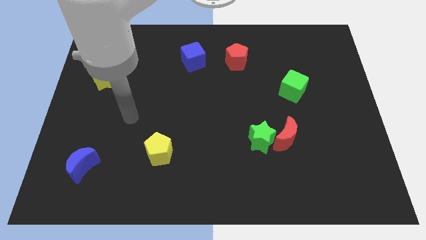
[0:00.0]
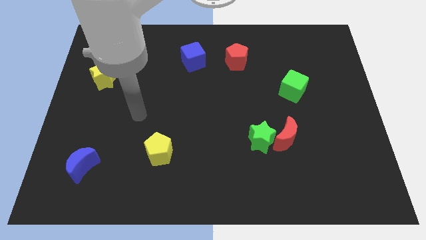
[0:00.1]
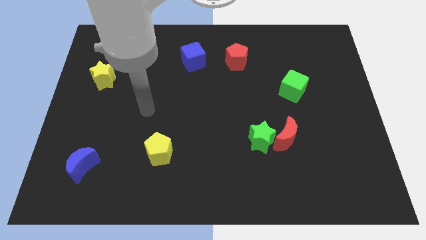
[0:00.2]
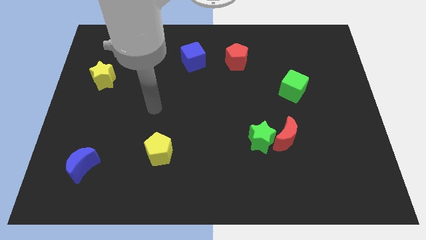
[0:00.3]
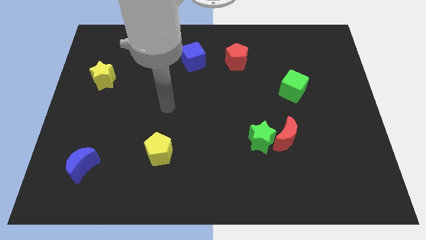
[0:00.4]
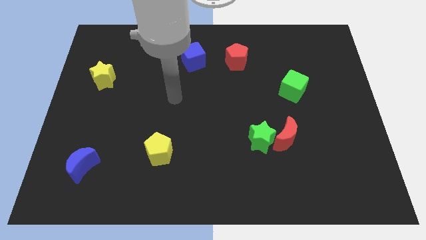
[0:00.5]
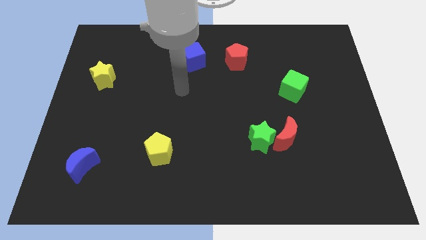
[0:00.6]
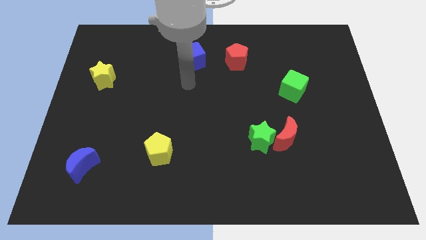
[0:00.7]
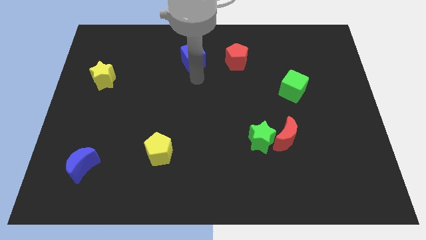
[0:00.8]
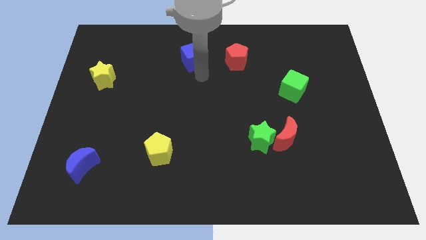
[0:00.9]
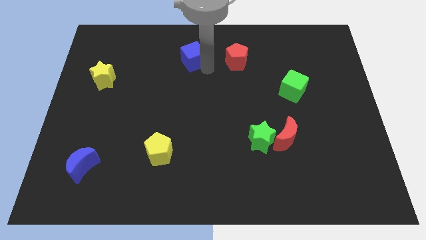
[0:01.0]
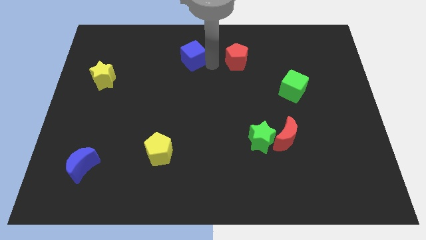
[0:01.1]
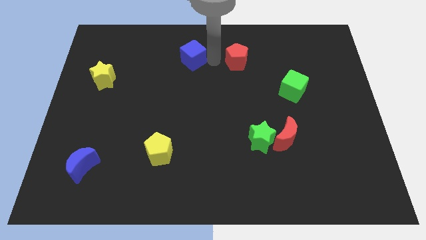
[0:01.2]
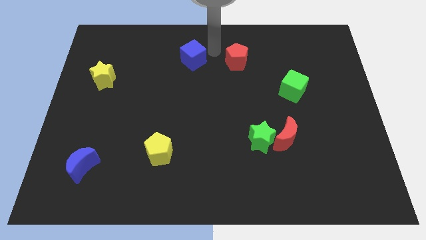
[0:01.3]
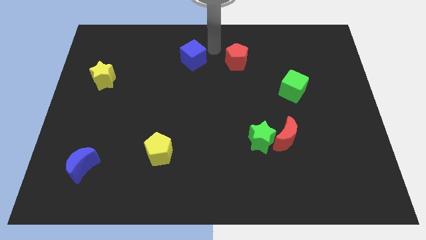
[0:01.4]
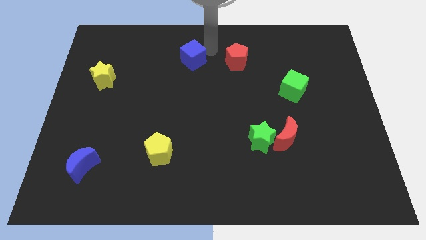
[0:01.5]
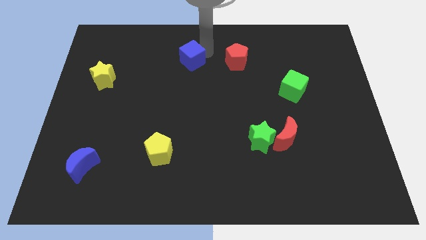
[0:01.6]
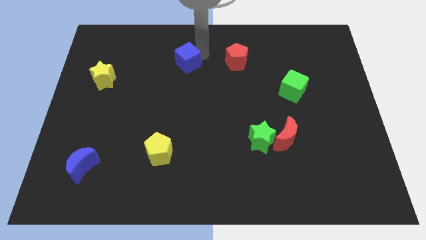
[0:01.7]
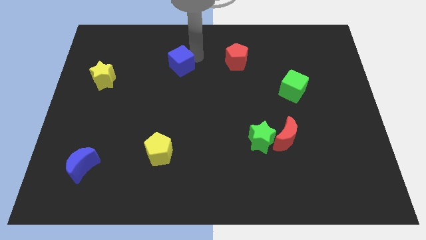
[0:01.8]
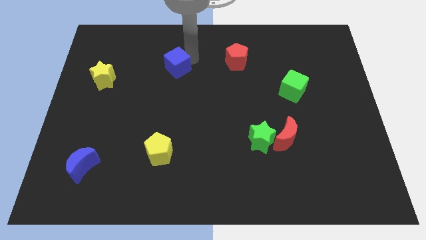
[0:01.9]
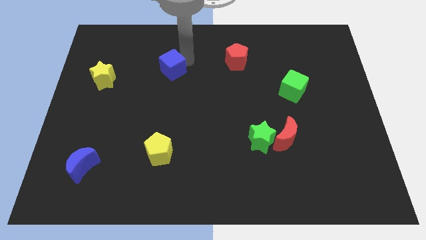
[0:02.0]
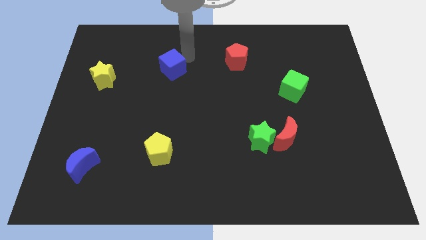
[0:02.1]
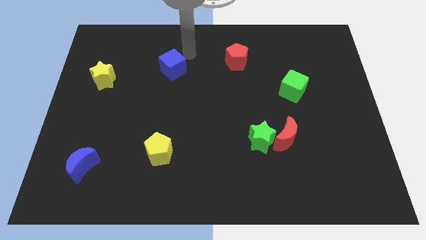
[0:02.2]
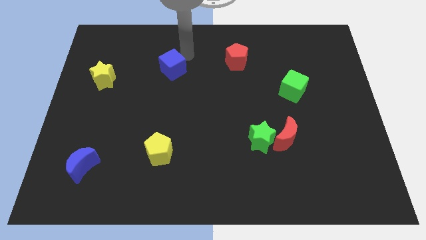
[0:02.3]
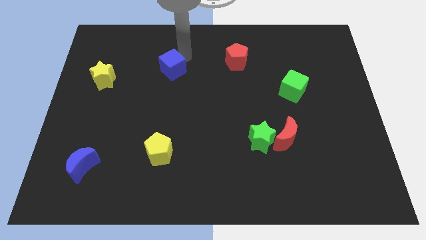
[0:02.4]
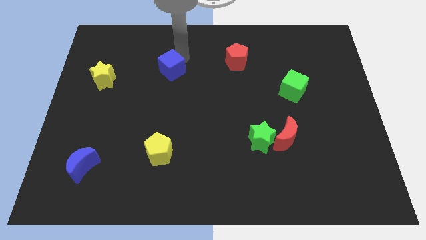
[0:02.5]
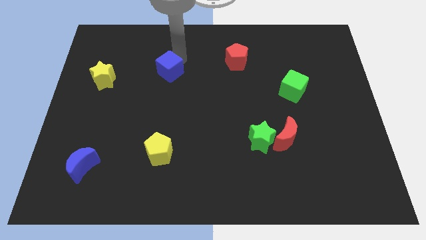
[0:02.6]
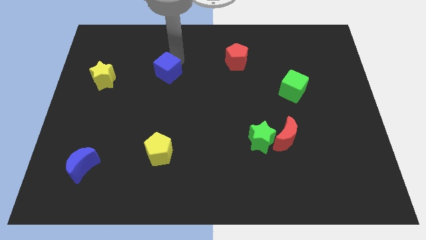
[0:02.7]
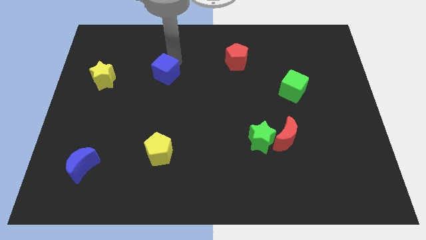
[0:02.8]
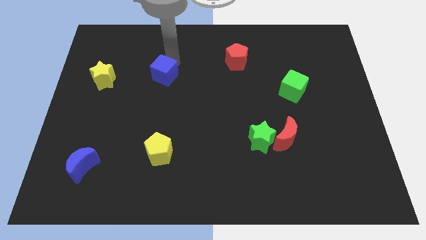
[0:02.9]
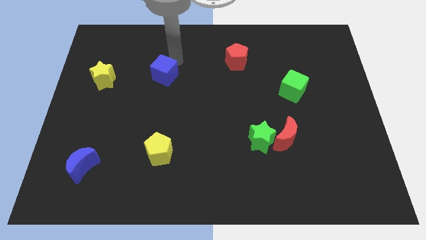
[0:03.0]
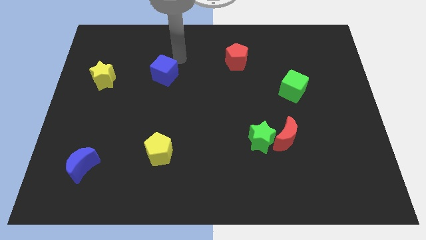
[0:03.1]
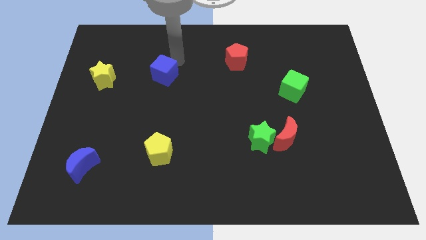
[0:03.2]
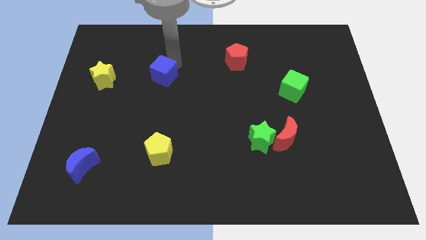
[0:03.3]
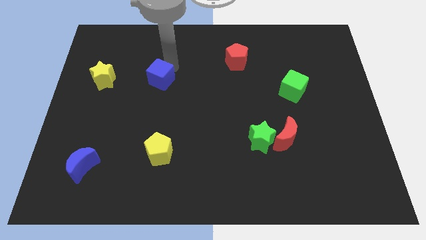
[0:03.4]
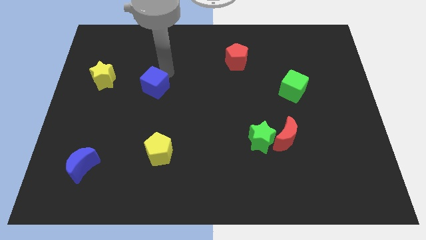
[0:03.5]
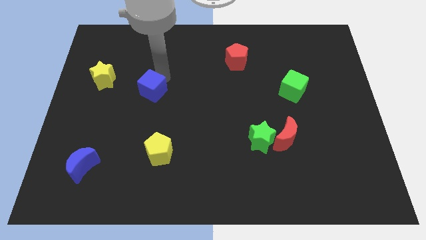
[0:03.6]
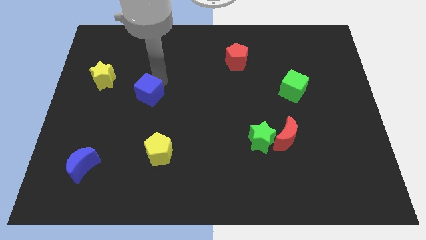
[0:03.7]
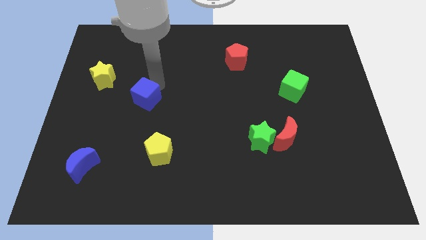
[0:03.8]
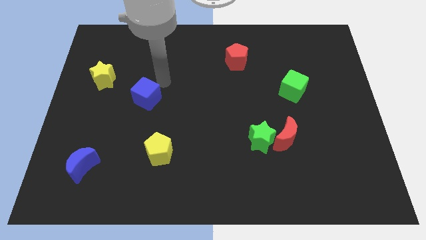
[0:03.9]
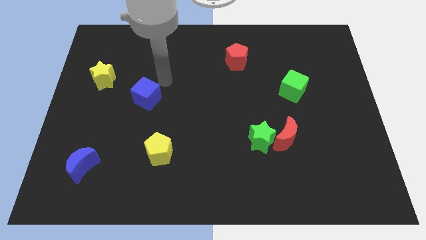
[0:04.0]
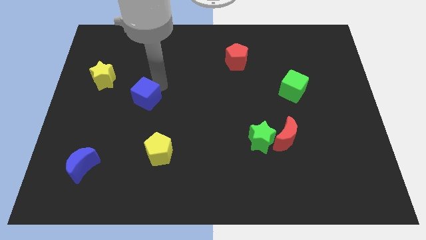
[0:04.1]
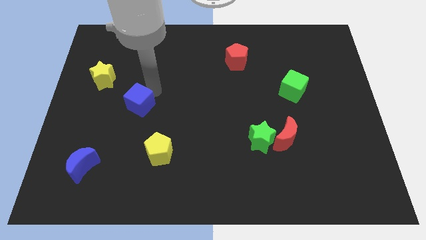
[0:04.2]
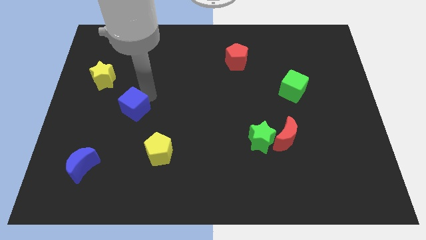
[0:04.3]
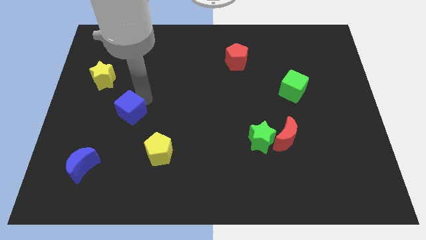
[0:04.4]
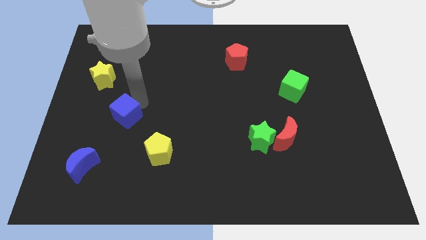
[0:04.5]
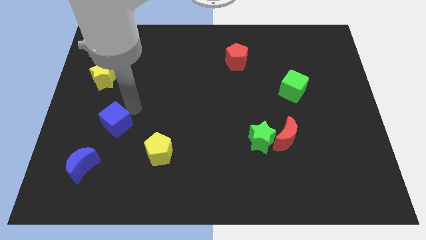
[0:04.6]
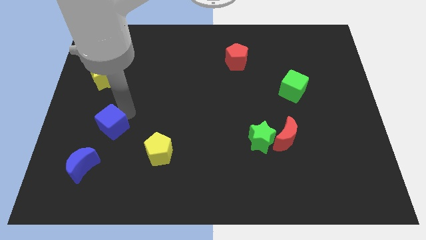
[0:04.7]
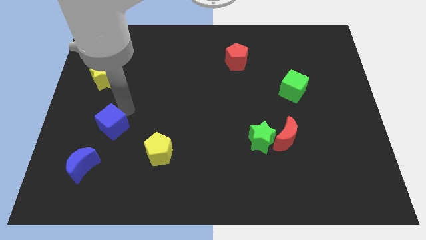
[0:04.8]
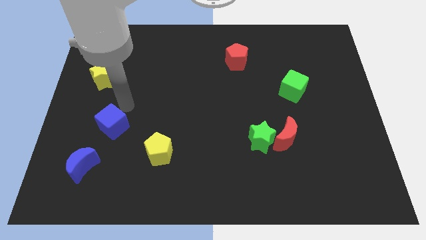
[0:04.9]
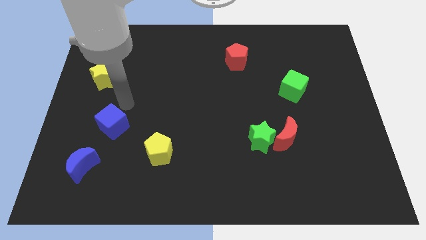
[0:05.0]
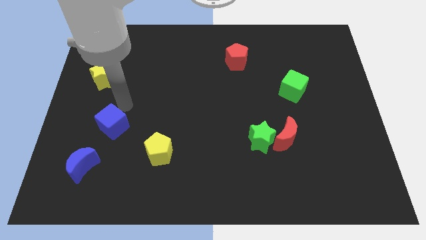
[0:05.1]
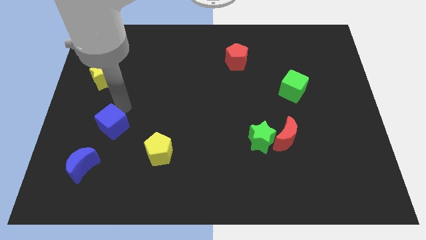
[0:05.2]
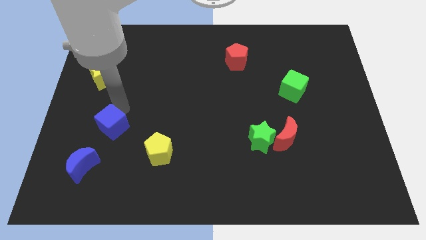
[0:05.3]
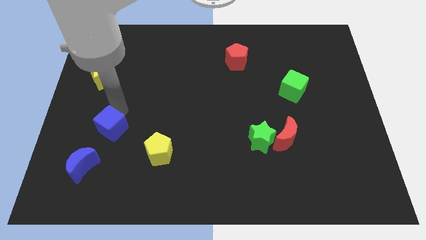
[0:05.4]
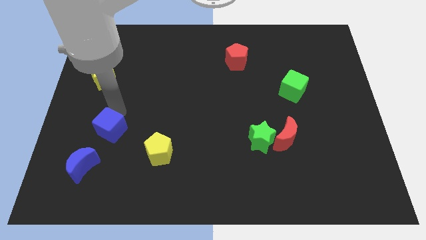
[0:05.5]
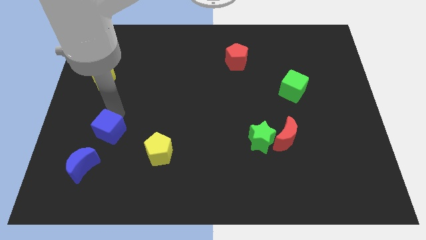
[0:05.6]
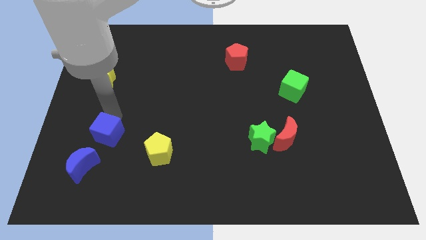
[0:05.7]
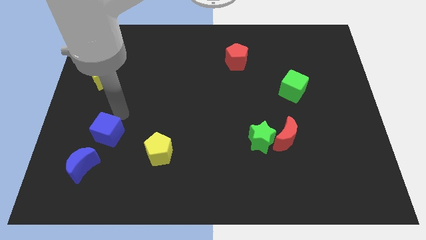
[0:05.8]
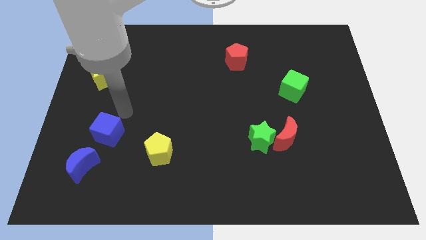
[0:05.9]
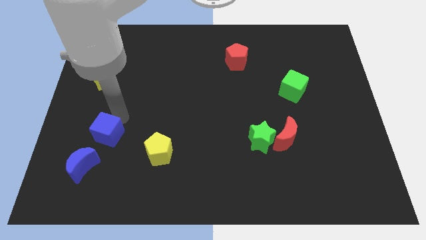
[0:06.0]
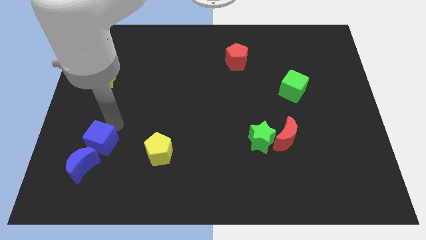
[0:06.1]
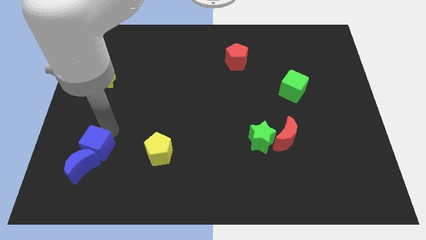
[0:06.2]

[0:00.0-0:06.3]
push the blue cube to the blue moon

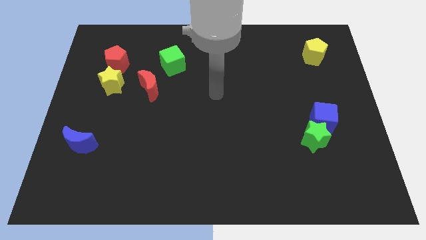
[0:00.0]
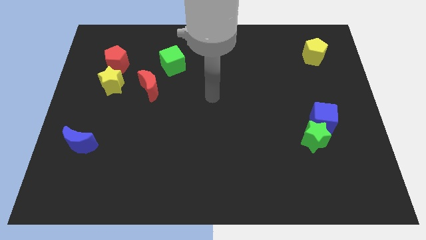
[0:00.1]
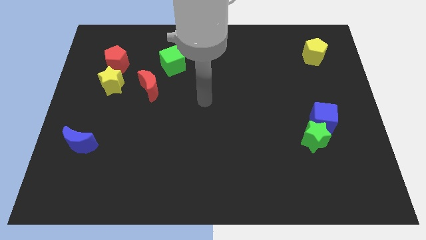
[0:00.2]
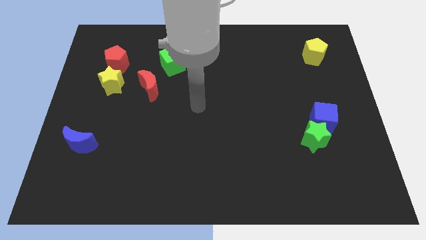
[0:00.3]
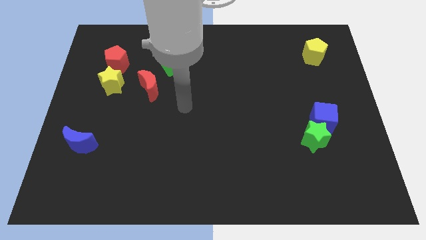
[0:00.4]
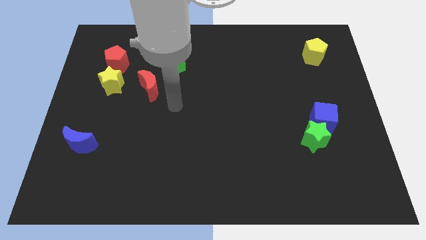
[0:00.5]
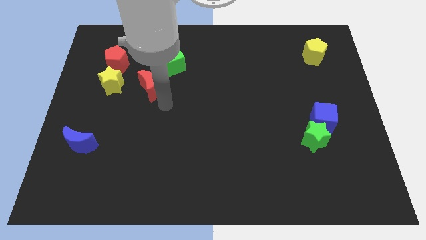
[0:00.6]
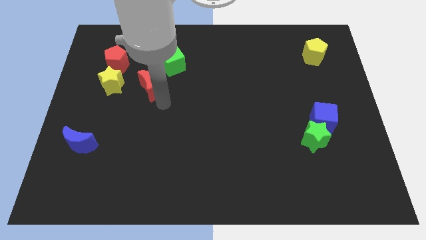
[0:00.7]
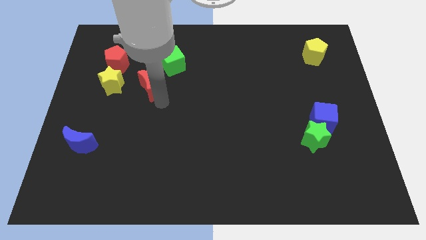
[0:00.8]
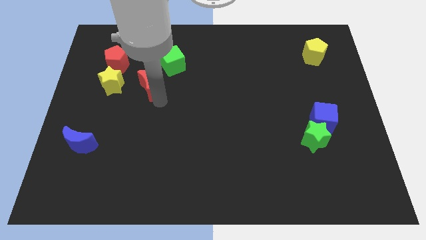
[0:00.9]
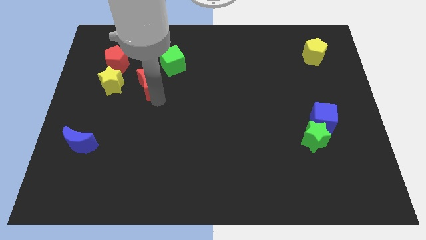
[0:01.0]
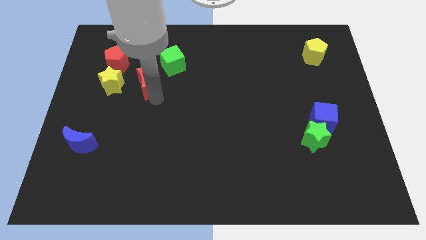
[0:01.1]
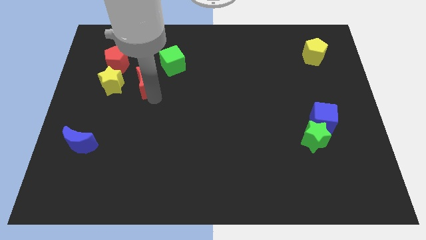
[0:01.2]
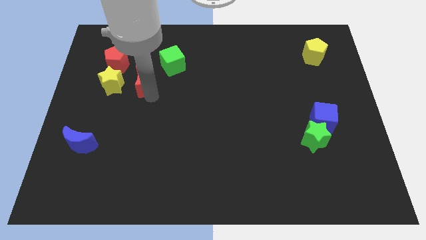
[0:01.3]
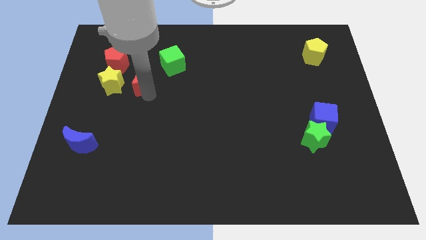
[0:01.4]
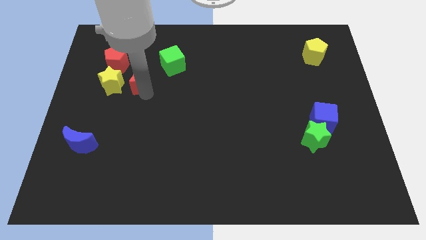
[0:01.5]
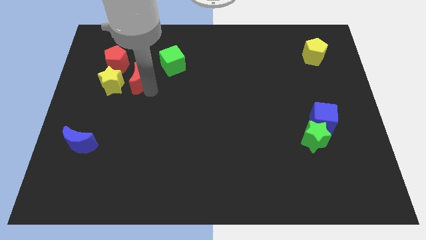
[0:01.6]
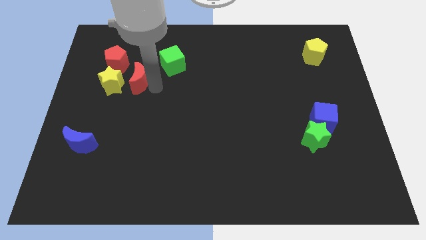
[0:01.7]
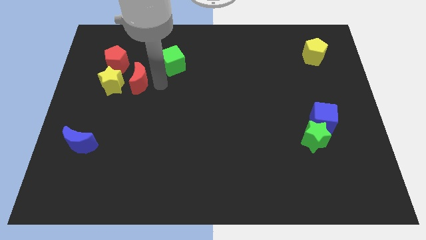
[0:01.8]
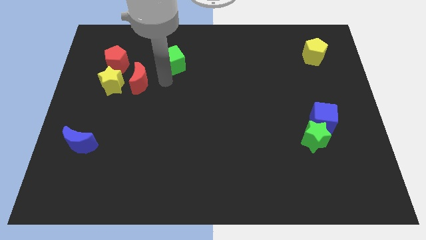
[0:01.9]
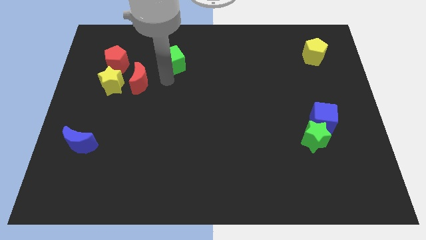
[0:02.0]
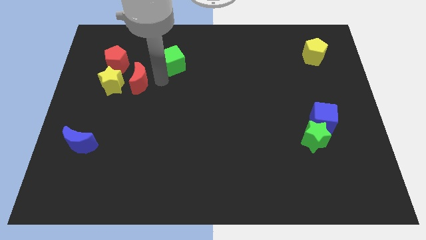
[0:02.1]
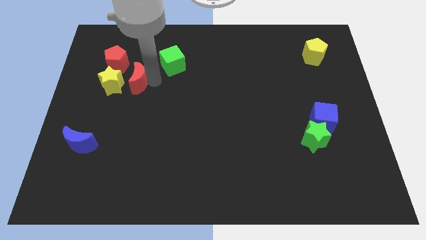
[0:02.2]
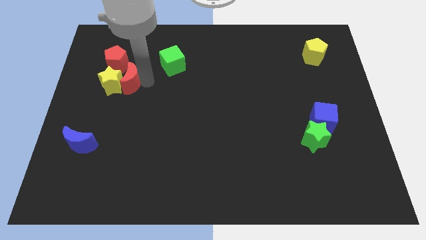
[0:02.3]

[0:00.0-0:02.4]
put the red moon to the yellow star
